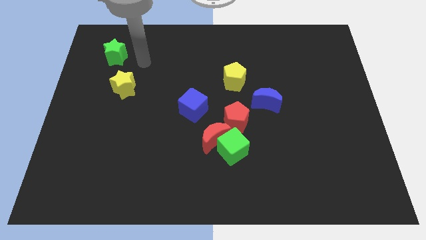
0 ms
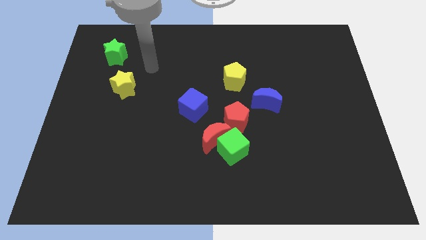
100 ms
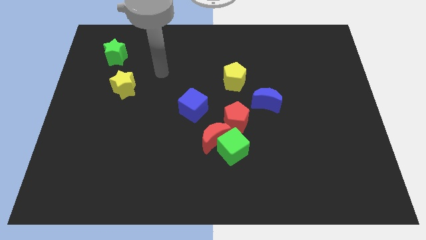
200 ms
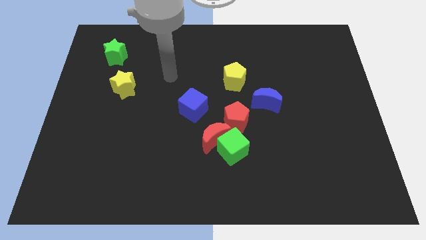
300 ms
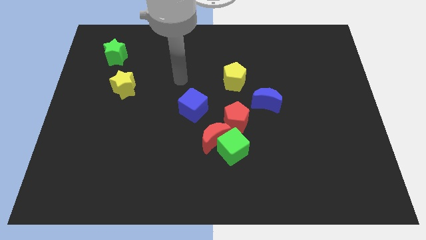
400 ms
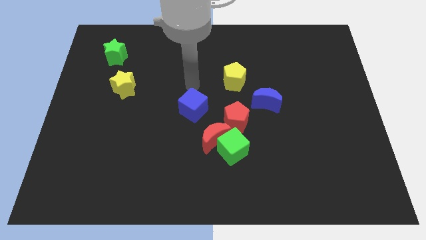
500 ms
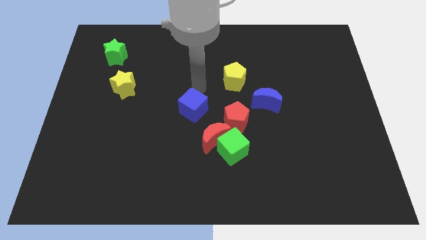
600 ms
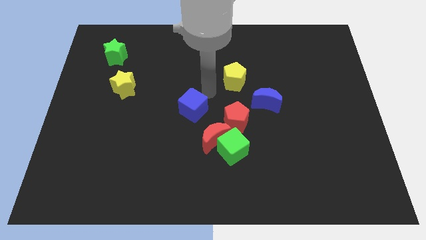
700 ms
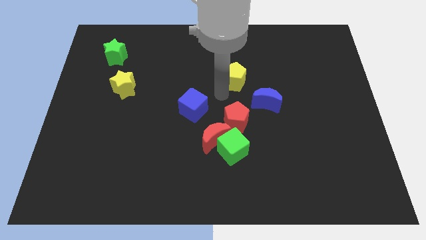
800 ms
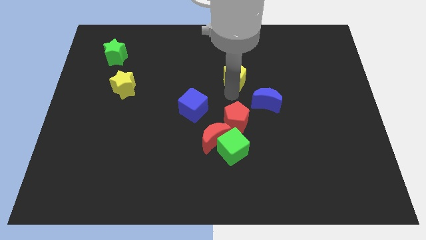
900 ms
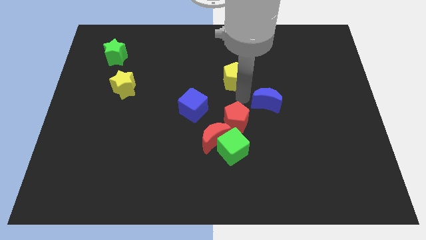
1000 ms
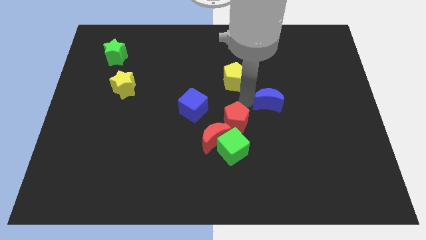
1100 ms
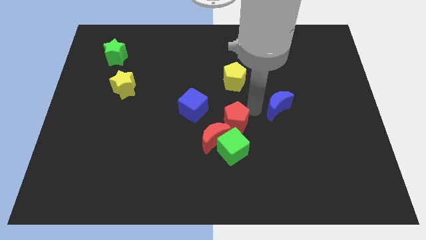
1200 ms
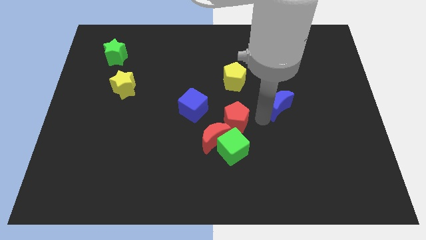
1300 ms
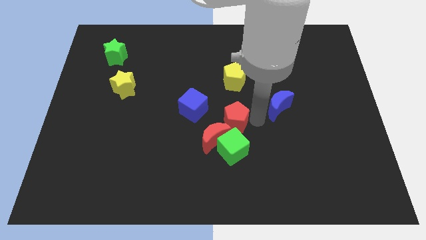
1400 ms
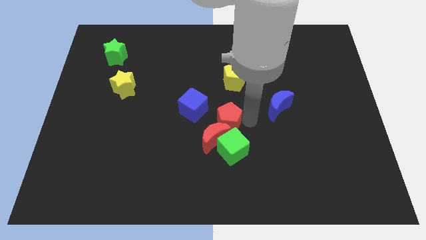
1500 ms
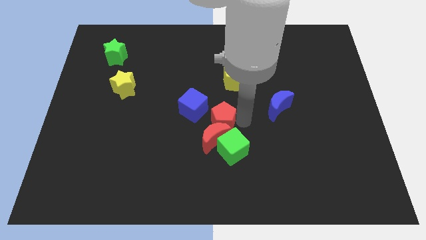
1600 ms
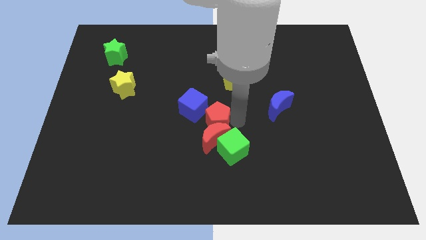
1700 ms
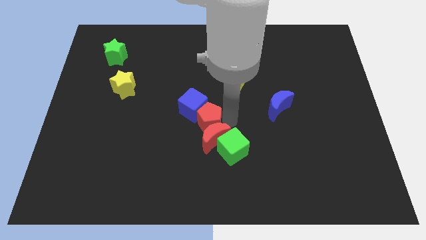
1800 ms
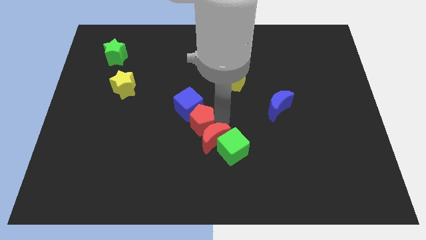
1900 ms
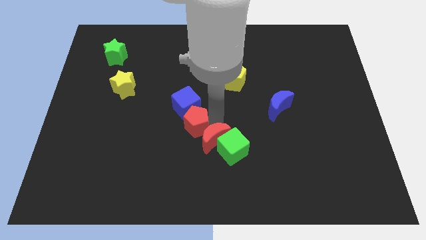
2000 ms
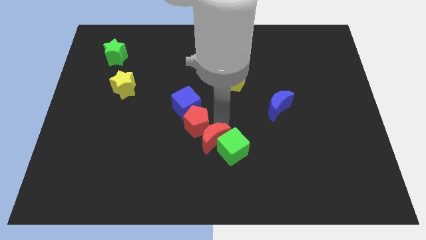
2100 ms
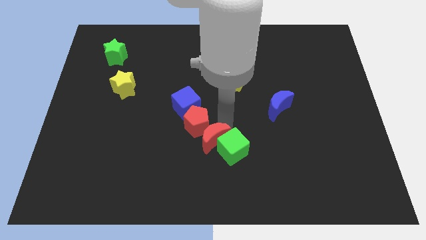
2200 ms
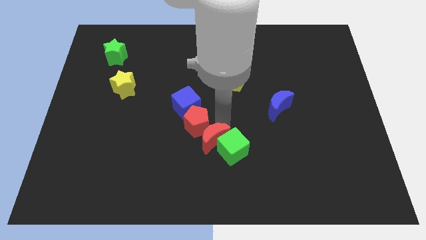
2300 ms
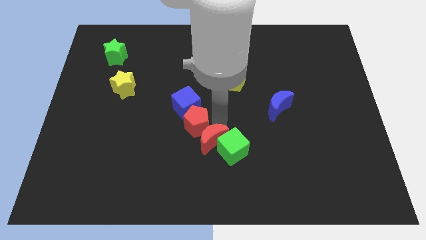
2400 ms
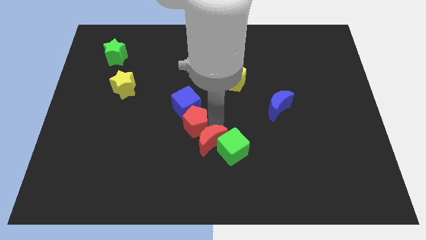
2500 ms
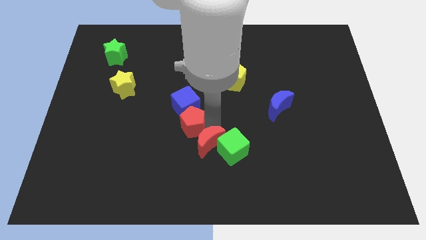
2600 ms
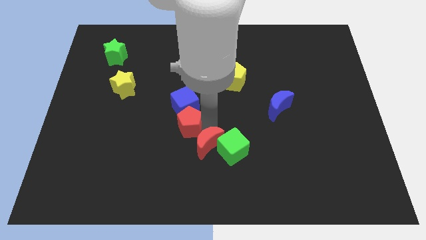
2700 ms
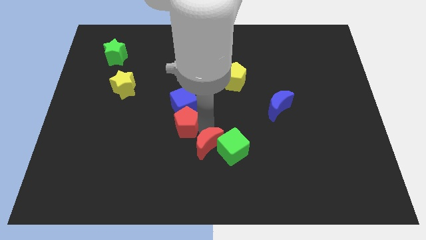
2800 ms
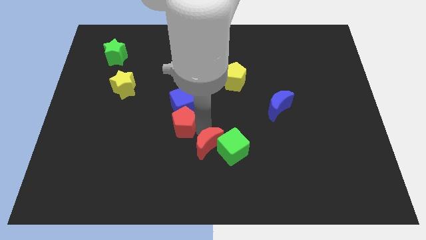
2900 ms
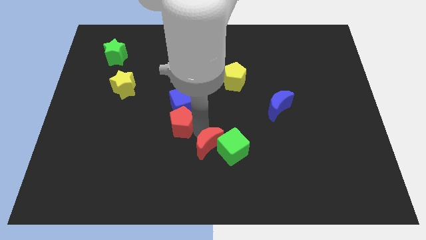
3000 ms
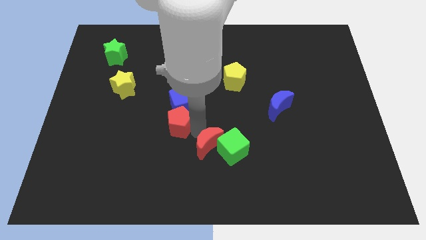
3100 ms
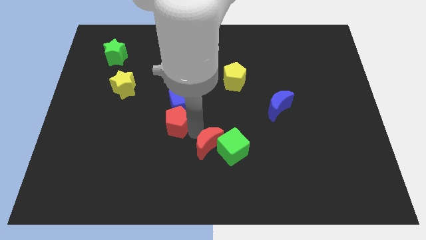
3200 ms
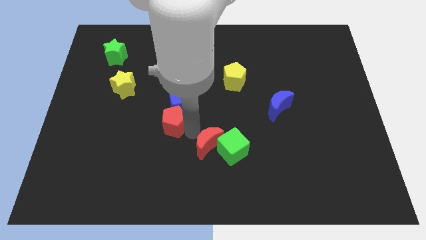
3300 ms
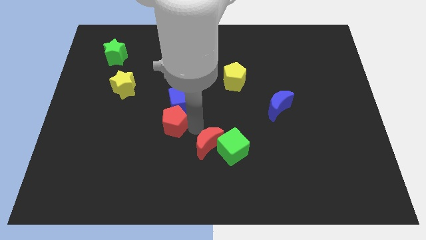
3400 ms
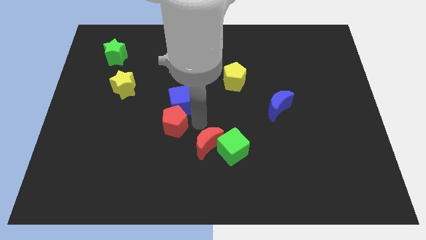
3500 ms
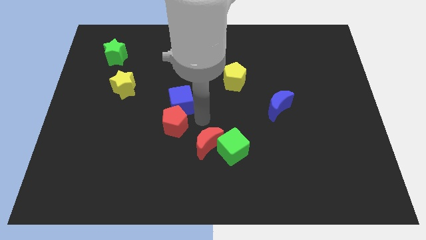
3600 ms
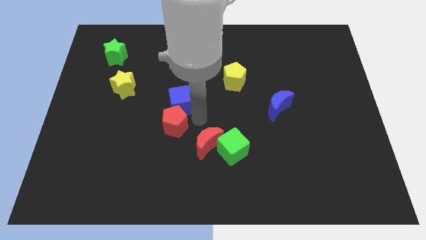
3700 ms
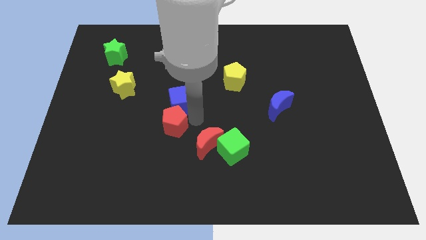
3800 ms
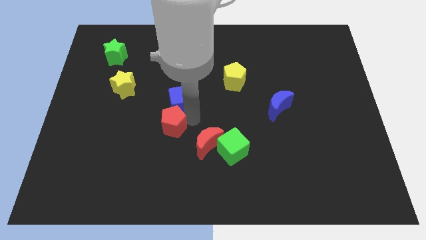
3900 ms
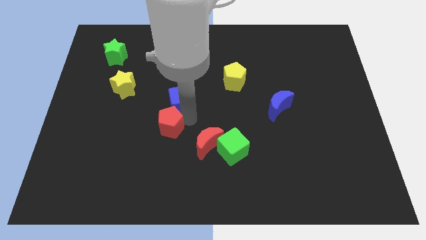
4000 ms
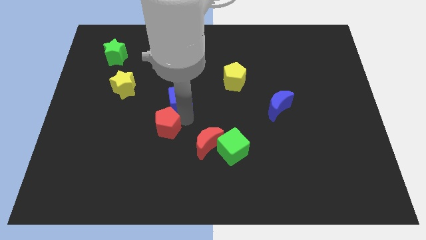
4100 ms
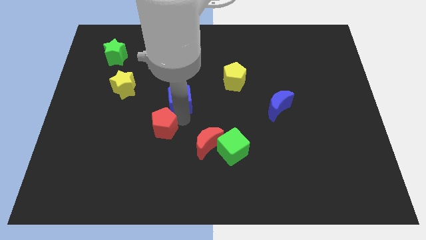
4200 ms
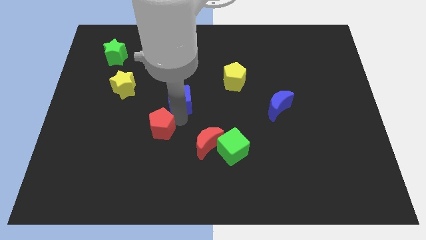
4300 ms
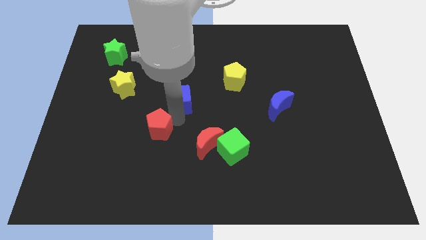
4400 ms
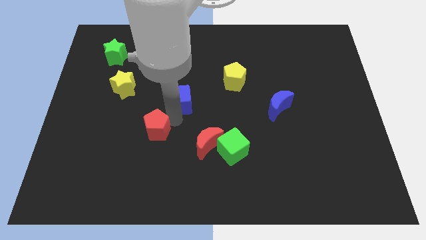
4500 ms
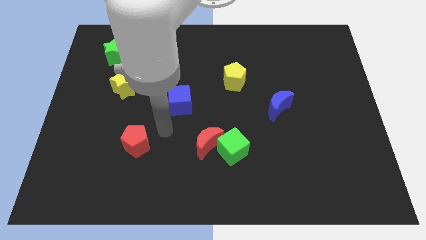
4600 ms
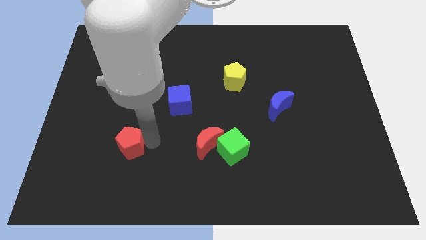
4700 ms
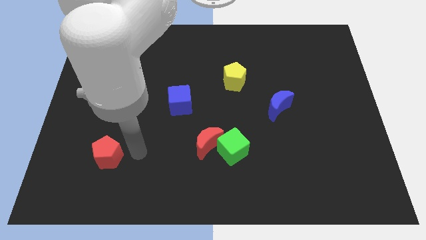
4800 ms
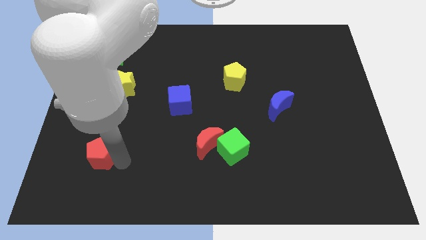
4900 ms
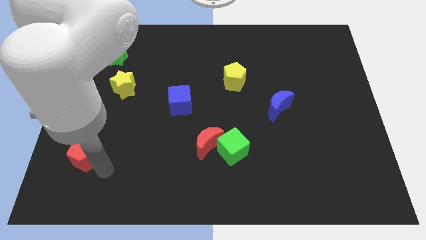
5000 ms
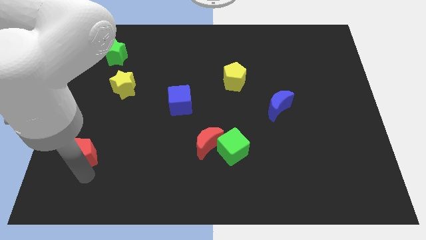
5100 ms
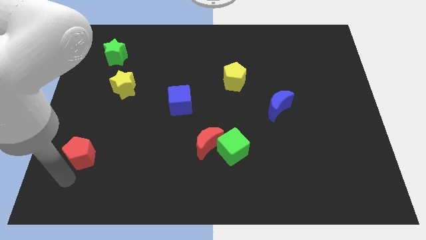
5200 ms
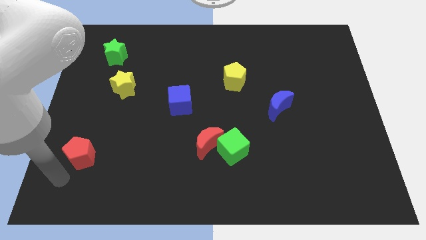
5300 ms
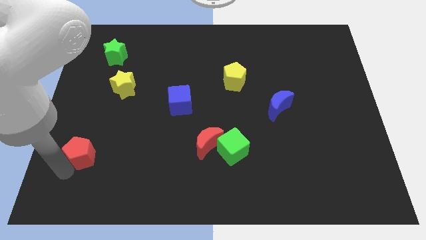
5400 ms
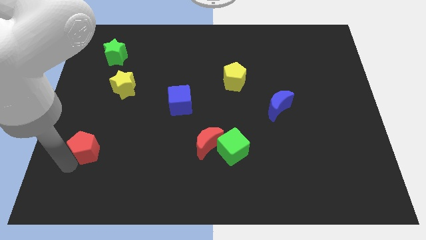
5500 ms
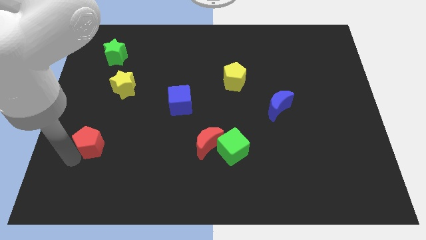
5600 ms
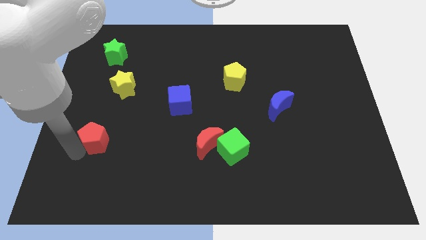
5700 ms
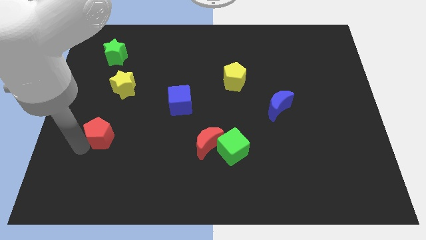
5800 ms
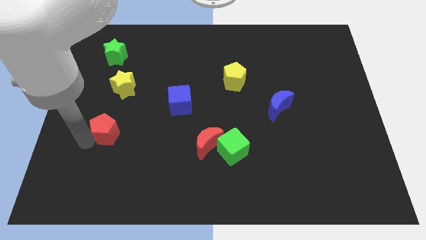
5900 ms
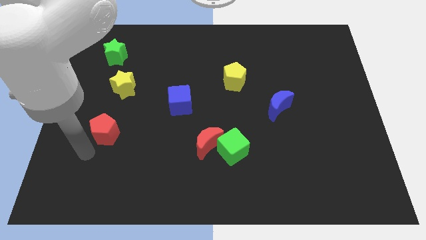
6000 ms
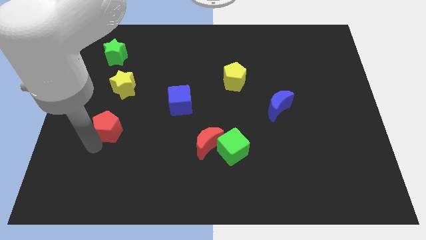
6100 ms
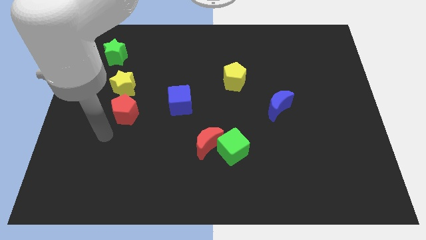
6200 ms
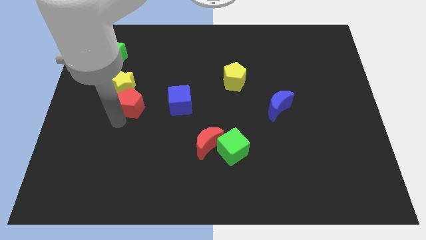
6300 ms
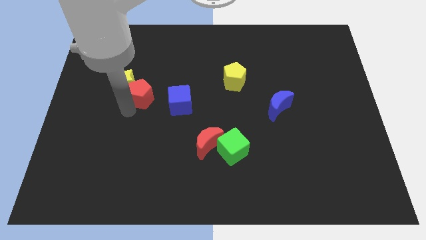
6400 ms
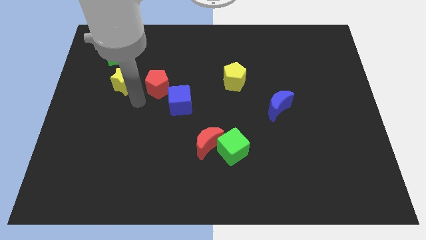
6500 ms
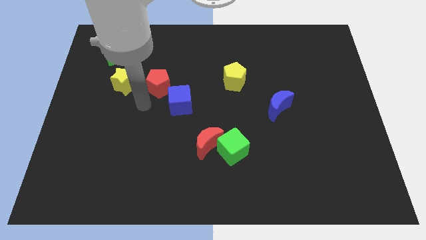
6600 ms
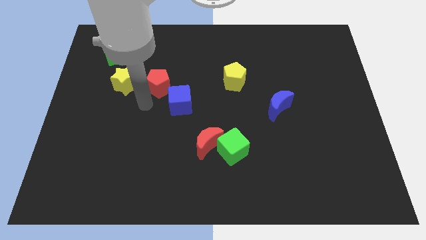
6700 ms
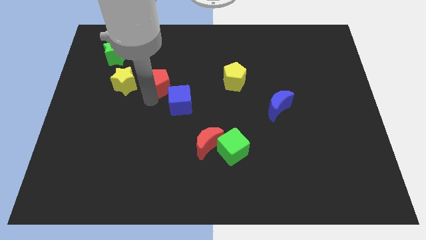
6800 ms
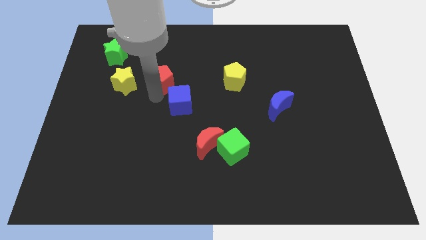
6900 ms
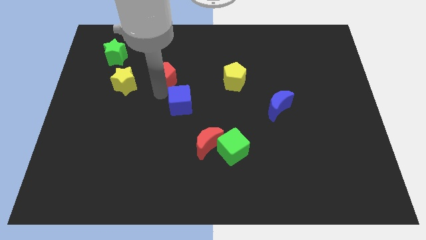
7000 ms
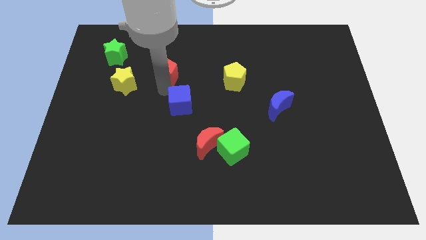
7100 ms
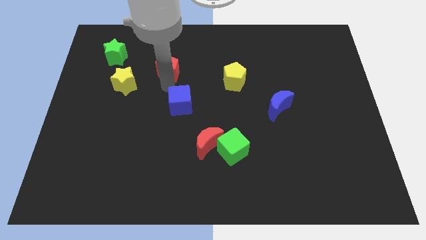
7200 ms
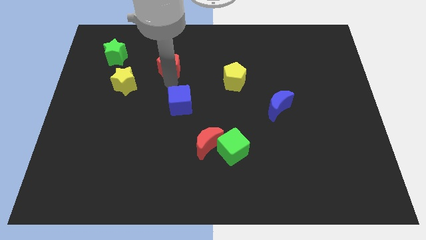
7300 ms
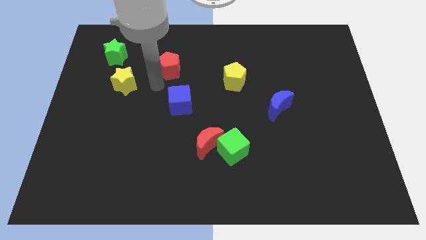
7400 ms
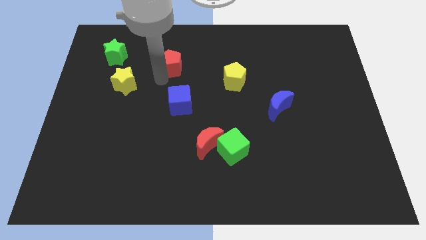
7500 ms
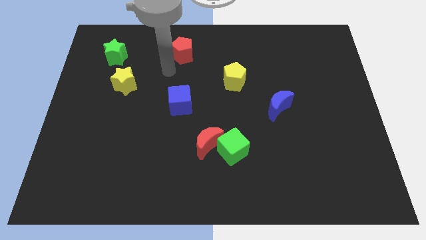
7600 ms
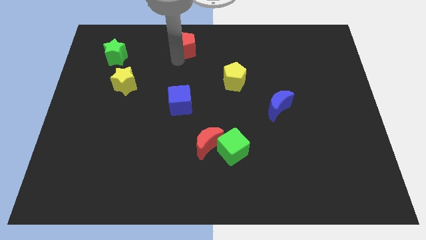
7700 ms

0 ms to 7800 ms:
put the red pentagon to the towards your base
